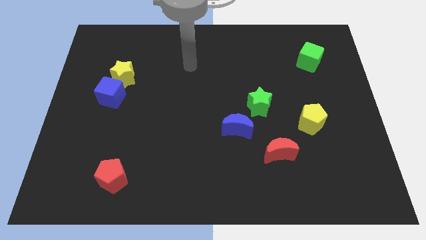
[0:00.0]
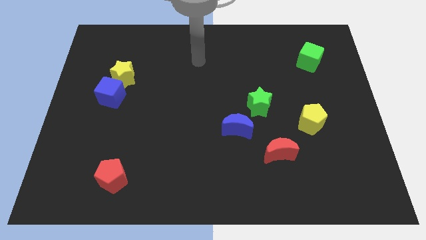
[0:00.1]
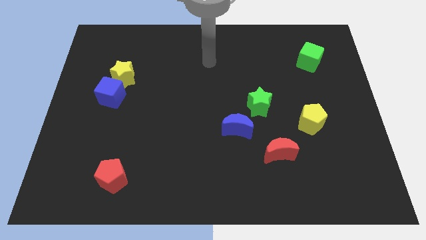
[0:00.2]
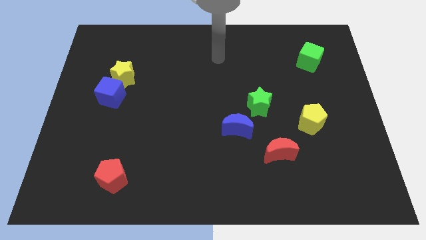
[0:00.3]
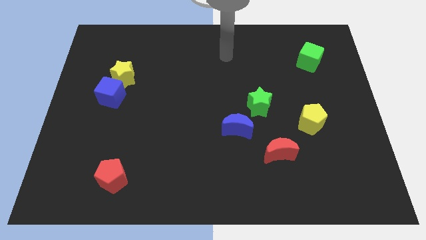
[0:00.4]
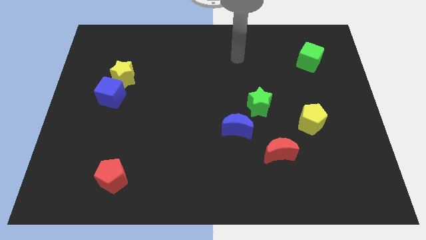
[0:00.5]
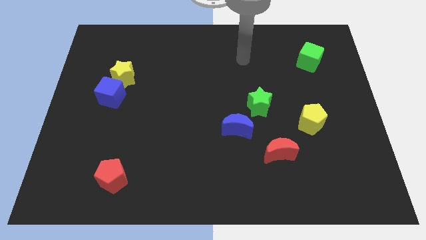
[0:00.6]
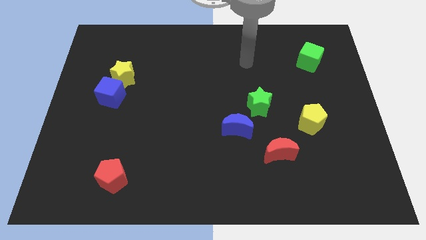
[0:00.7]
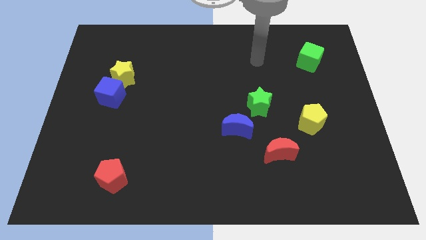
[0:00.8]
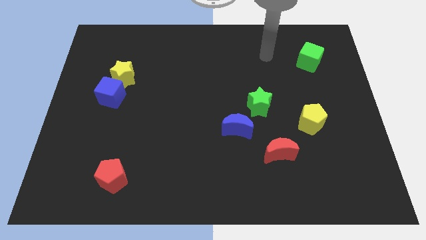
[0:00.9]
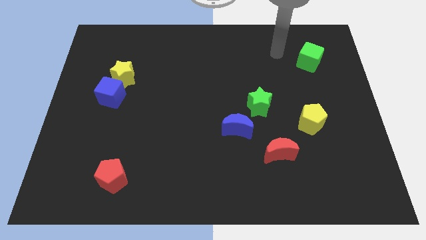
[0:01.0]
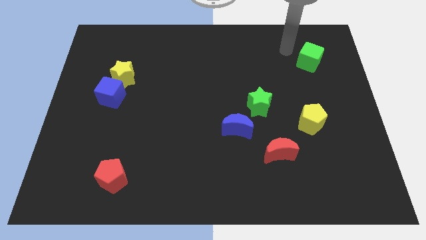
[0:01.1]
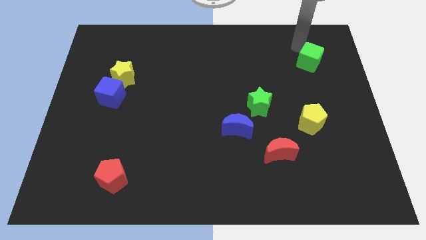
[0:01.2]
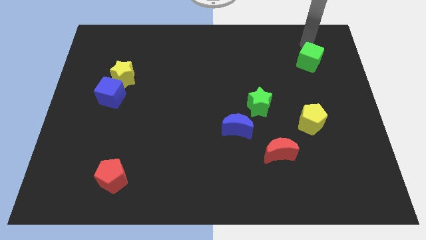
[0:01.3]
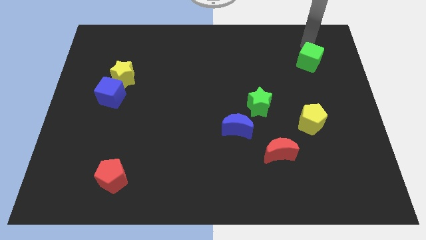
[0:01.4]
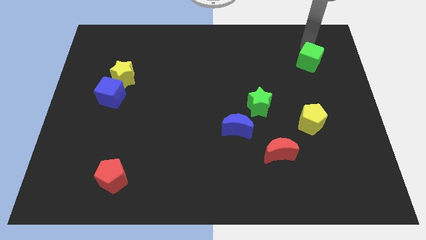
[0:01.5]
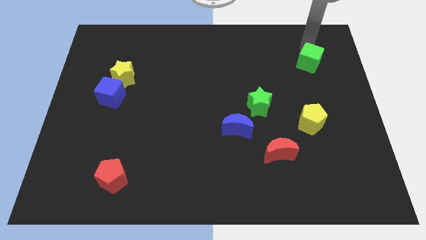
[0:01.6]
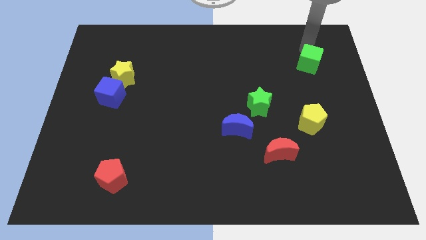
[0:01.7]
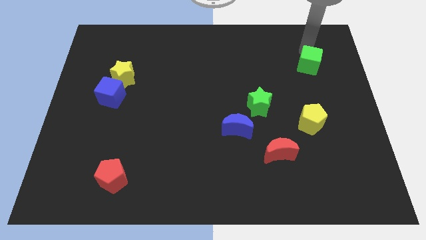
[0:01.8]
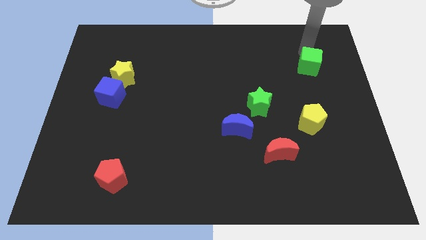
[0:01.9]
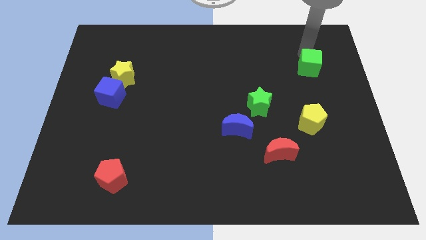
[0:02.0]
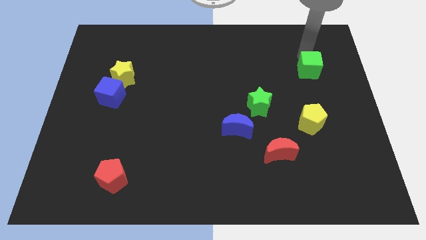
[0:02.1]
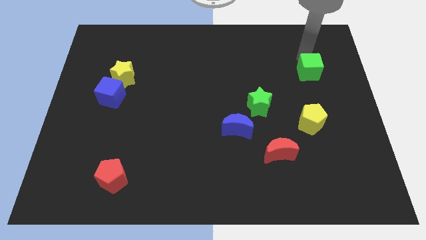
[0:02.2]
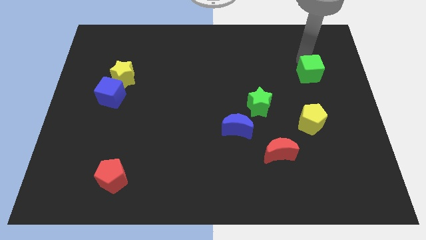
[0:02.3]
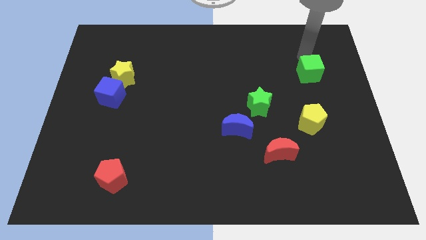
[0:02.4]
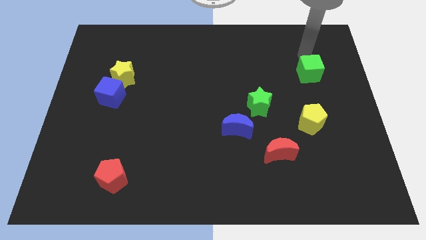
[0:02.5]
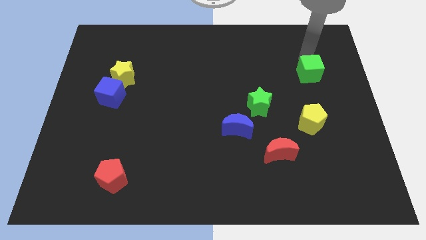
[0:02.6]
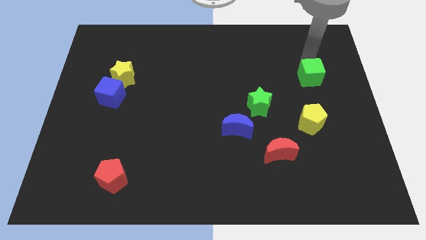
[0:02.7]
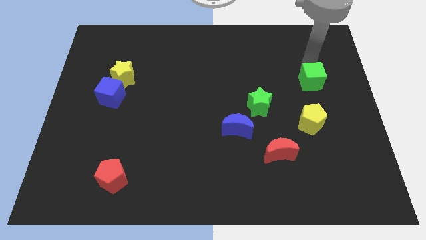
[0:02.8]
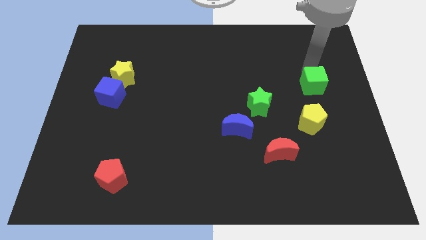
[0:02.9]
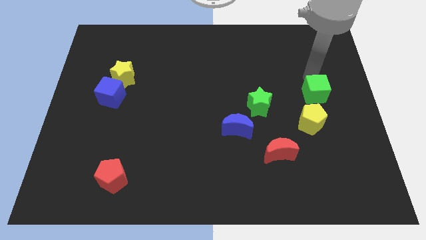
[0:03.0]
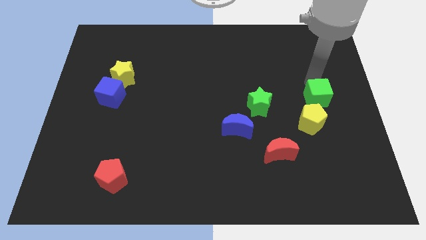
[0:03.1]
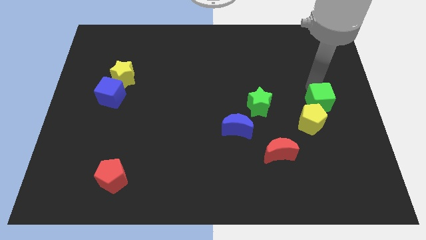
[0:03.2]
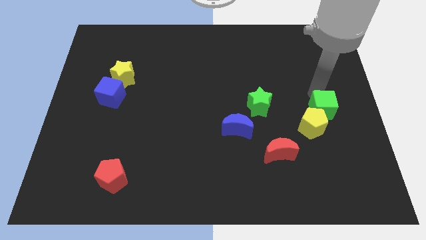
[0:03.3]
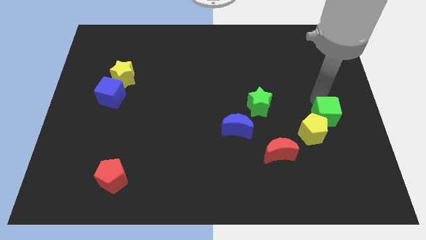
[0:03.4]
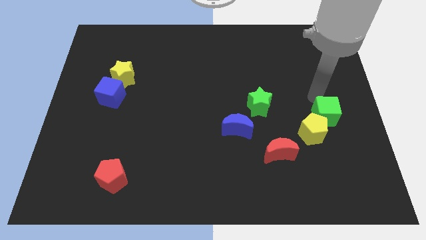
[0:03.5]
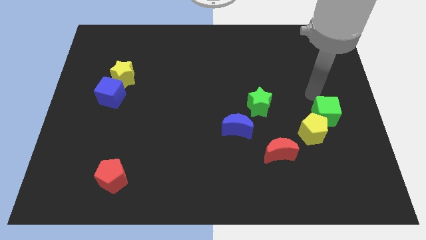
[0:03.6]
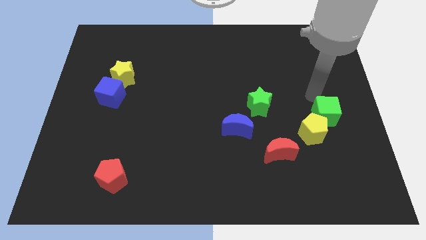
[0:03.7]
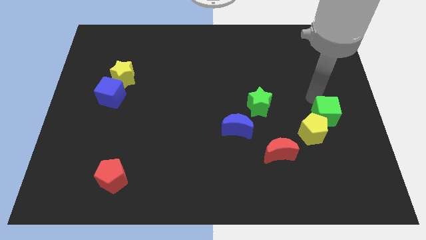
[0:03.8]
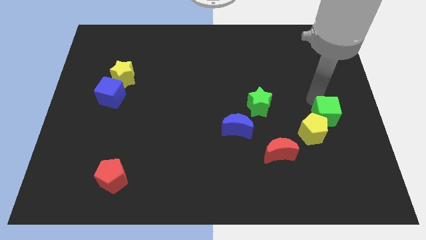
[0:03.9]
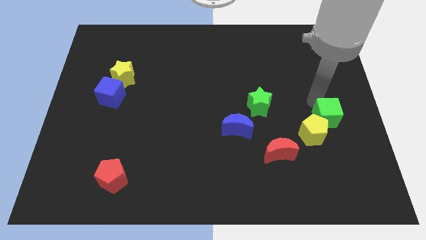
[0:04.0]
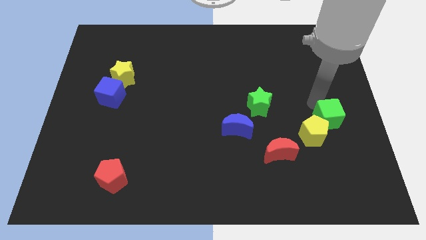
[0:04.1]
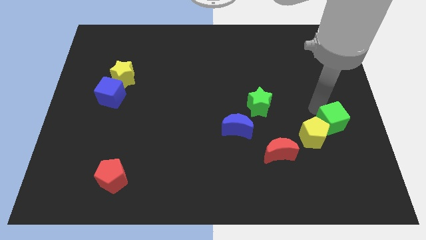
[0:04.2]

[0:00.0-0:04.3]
move the green cube down

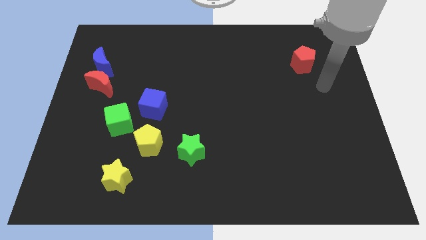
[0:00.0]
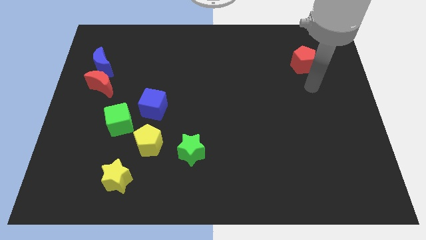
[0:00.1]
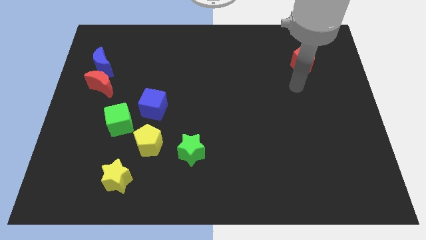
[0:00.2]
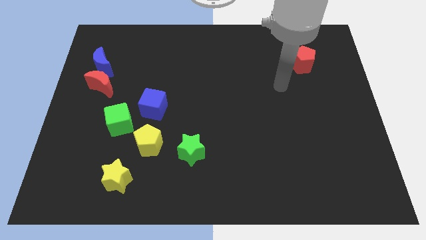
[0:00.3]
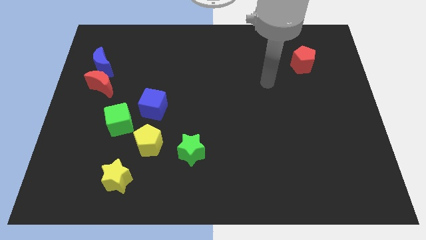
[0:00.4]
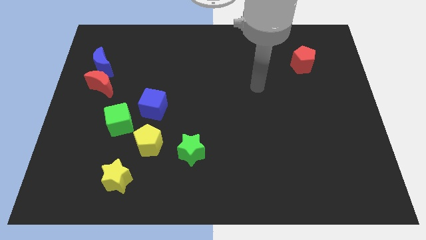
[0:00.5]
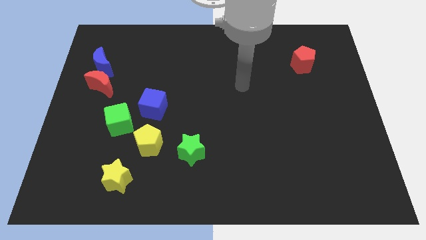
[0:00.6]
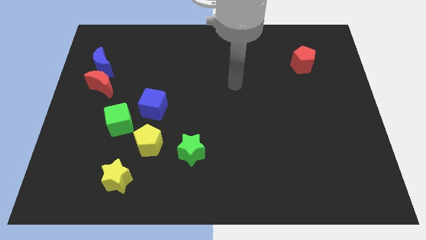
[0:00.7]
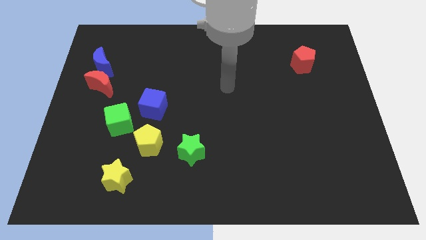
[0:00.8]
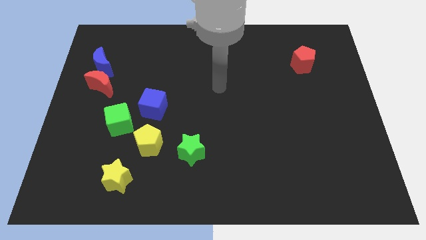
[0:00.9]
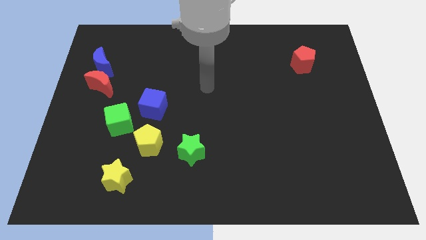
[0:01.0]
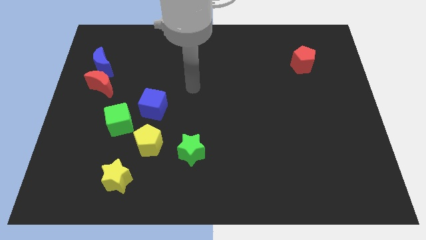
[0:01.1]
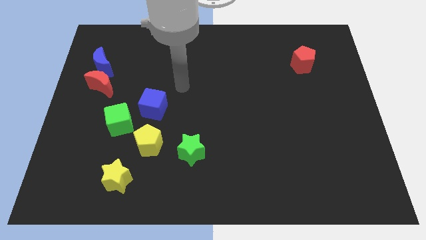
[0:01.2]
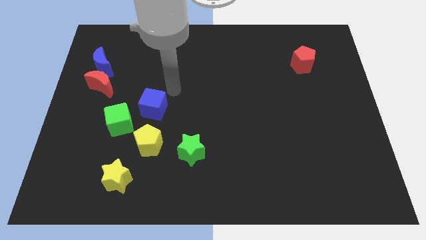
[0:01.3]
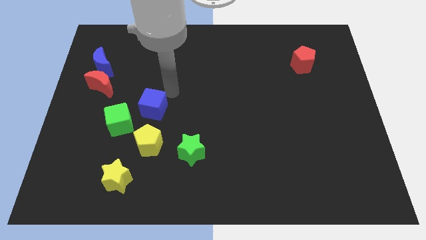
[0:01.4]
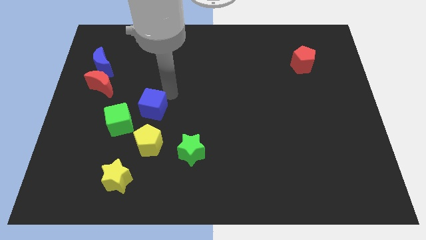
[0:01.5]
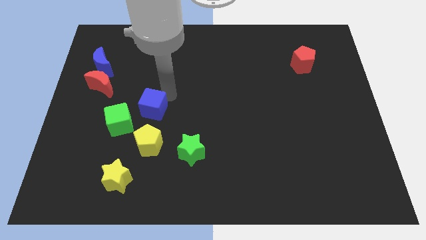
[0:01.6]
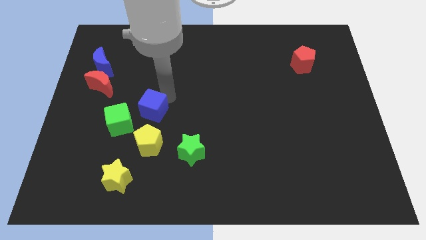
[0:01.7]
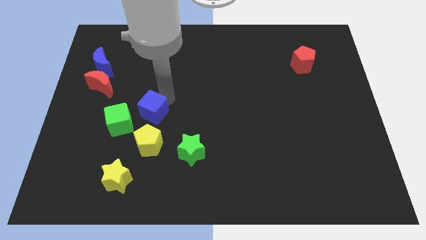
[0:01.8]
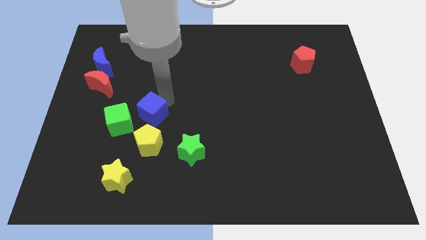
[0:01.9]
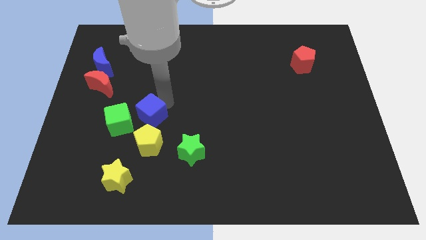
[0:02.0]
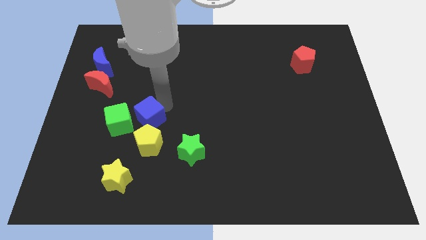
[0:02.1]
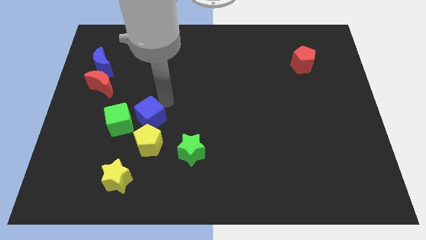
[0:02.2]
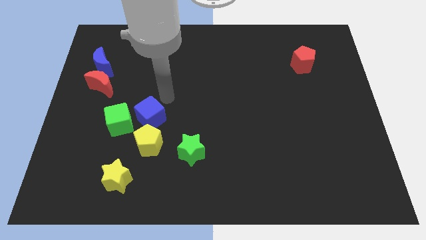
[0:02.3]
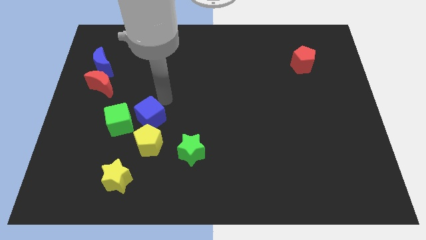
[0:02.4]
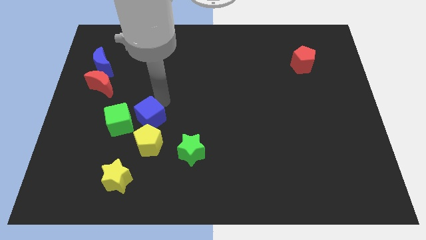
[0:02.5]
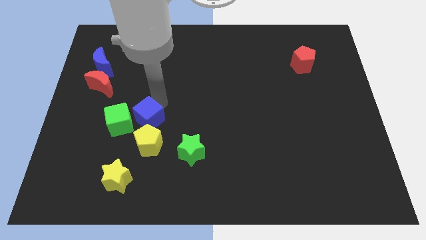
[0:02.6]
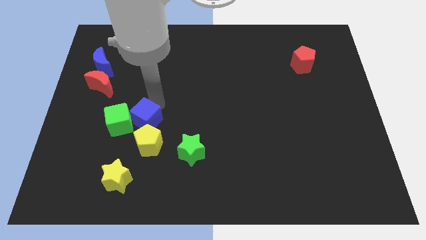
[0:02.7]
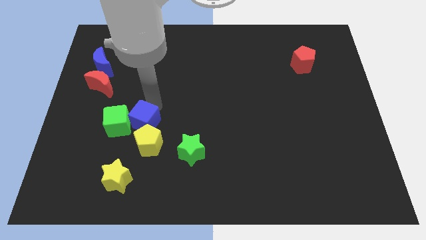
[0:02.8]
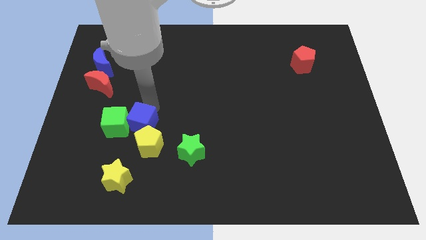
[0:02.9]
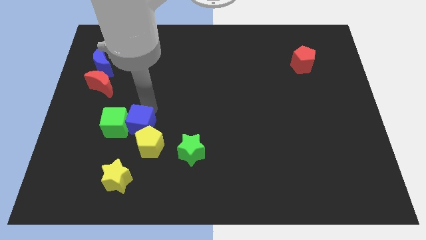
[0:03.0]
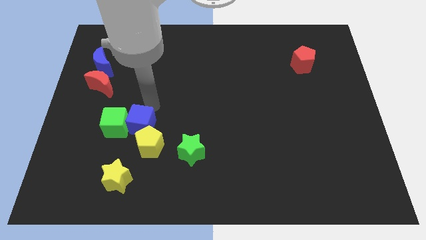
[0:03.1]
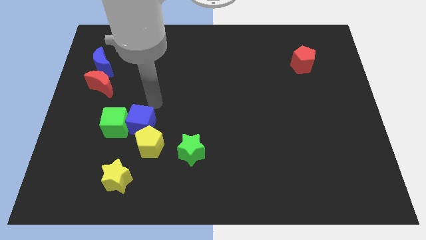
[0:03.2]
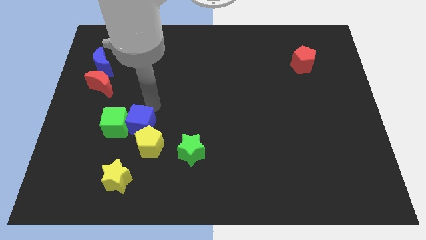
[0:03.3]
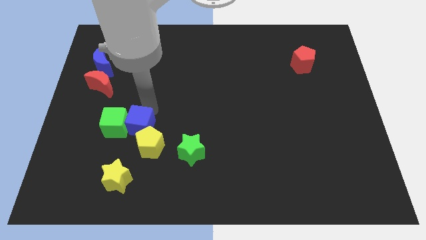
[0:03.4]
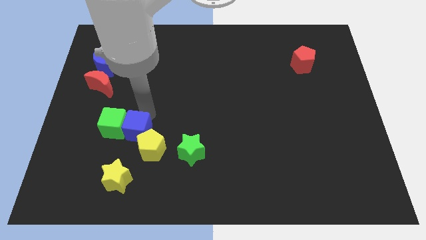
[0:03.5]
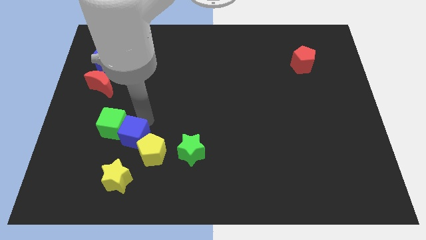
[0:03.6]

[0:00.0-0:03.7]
slightly slide the blue cube diagonally downwards and to the left

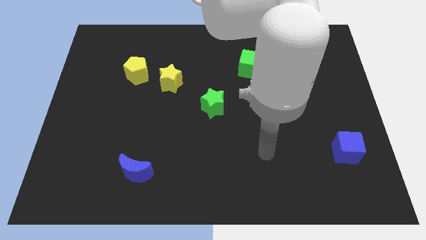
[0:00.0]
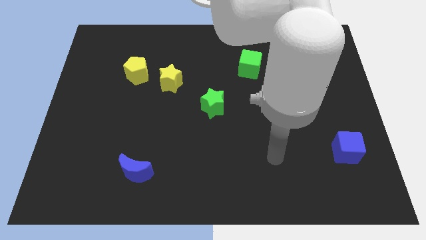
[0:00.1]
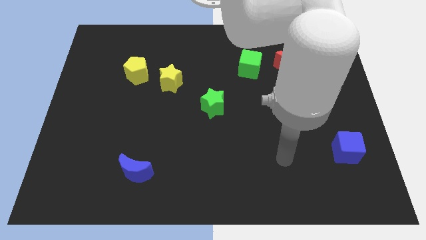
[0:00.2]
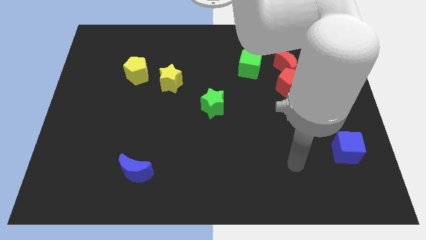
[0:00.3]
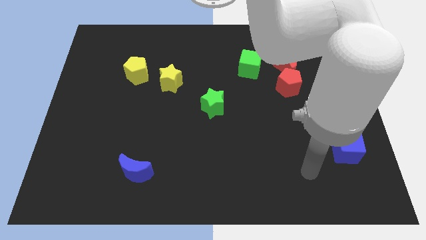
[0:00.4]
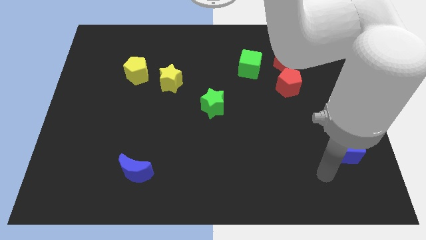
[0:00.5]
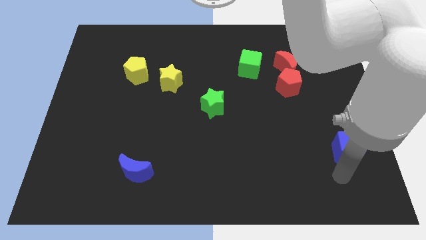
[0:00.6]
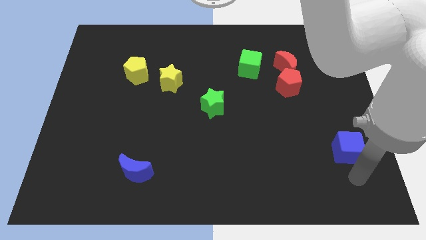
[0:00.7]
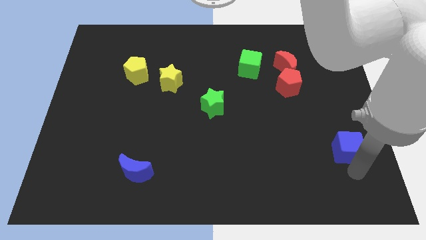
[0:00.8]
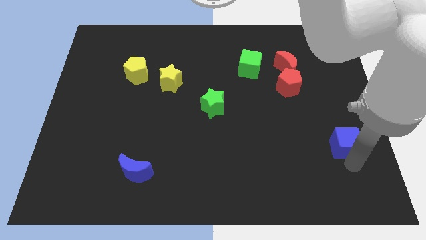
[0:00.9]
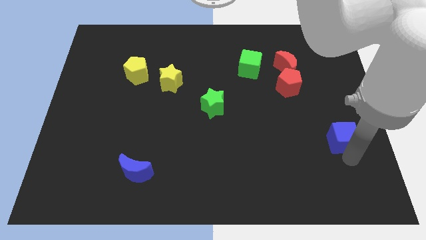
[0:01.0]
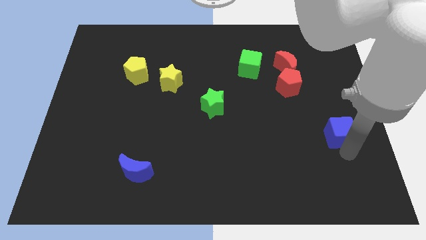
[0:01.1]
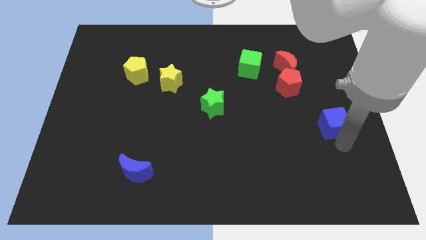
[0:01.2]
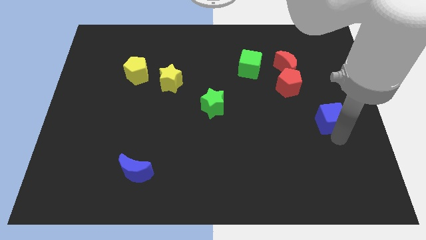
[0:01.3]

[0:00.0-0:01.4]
slide the blue cube upwards somewhat
